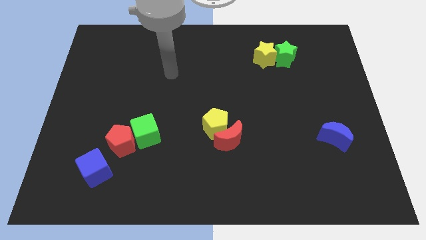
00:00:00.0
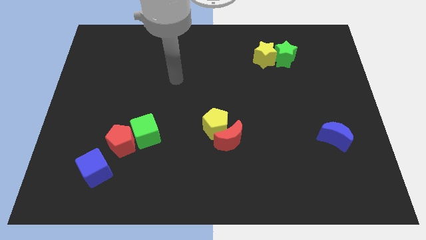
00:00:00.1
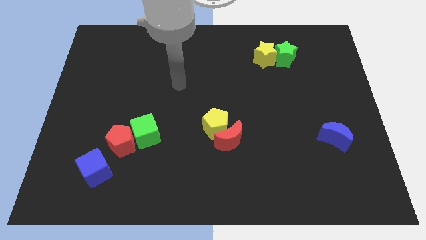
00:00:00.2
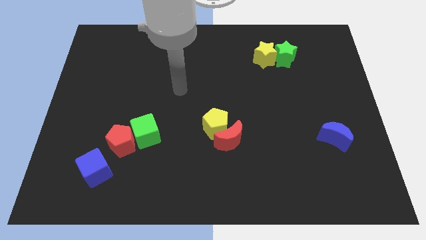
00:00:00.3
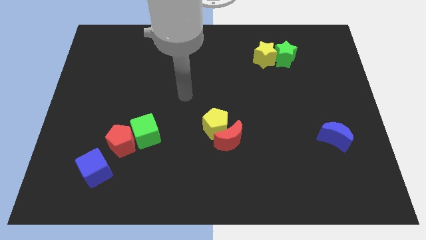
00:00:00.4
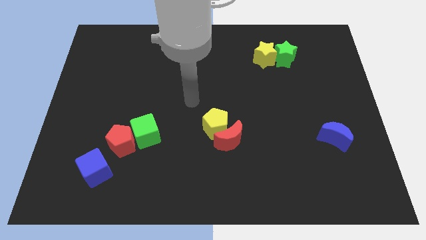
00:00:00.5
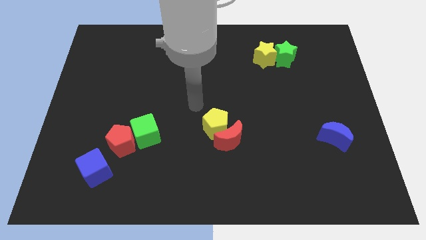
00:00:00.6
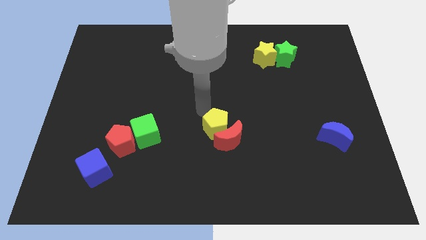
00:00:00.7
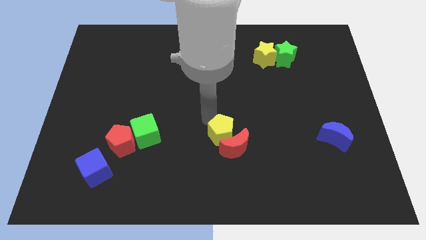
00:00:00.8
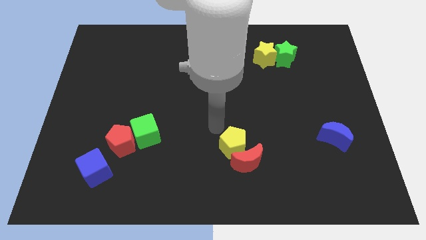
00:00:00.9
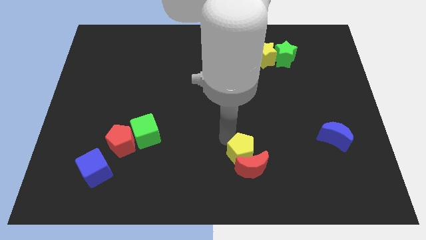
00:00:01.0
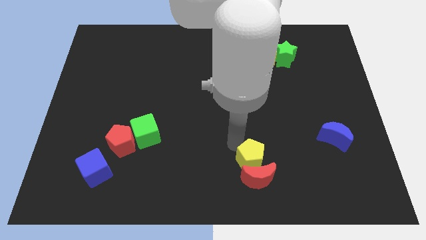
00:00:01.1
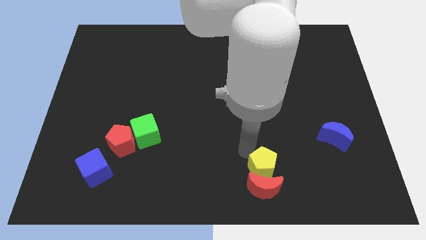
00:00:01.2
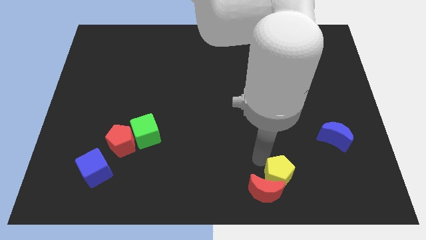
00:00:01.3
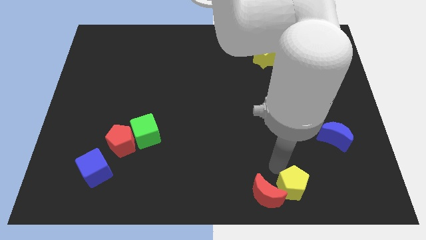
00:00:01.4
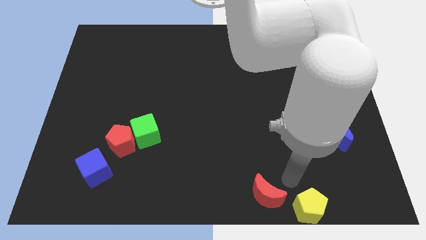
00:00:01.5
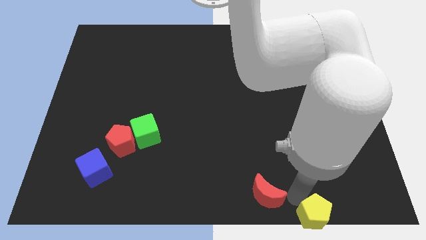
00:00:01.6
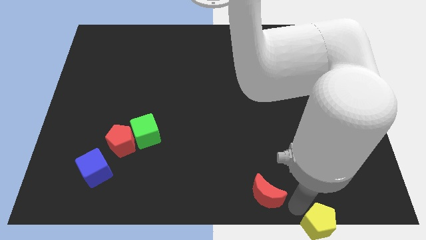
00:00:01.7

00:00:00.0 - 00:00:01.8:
move the red moon away from the yellow pentagon

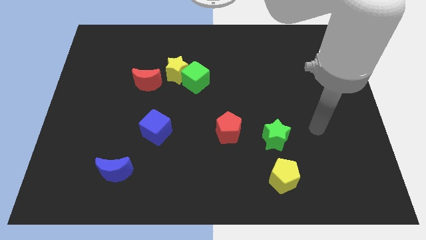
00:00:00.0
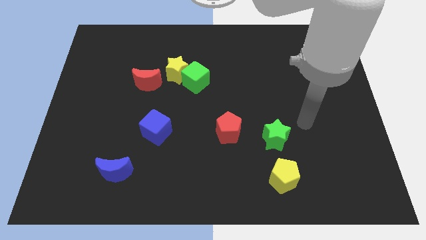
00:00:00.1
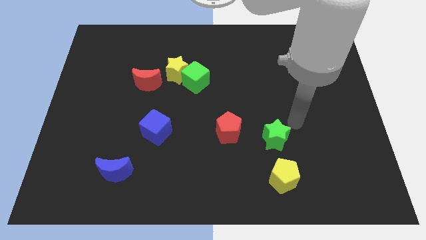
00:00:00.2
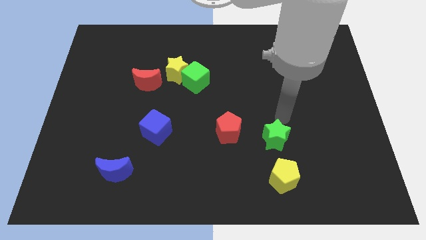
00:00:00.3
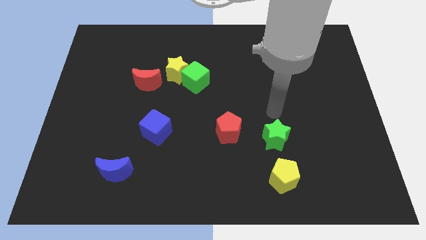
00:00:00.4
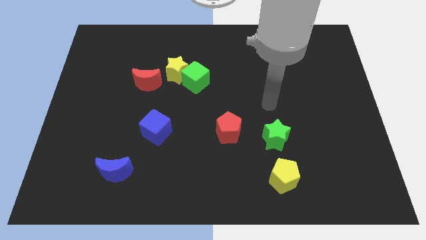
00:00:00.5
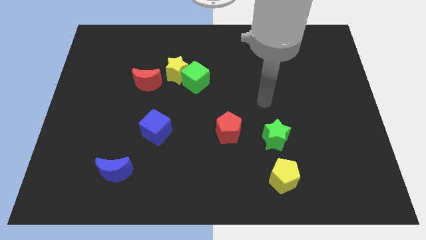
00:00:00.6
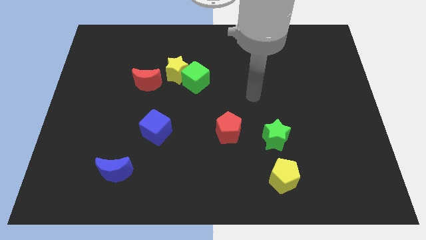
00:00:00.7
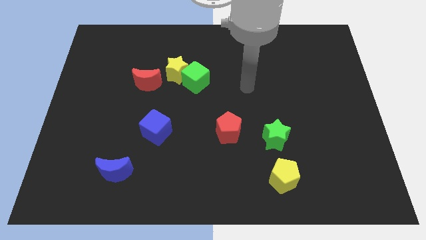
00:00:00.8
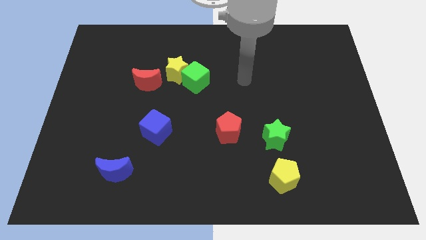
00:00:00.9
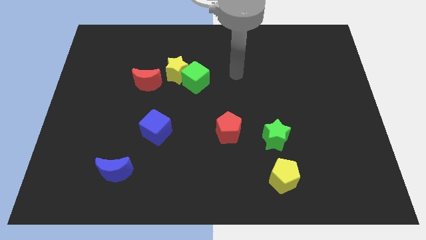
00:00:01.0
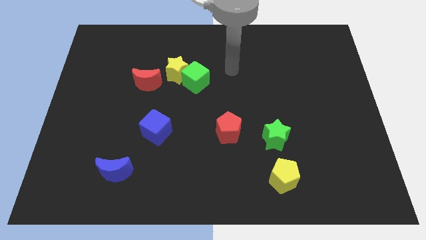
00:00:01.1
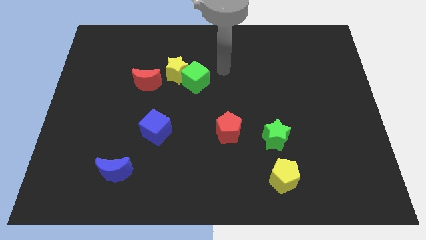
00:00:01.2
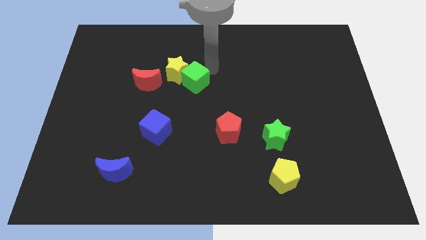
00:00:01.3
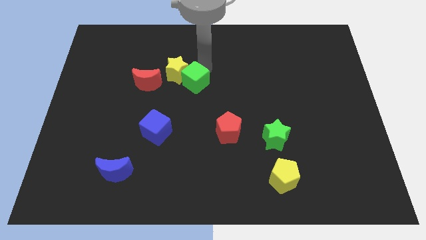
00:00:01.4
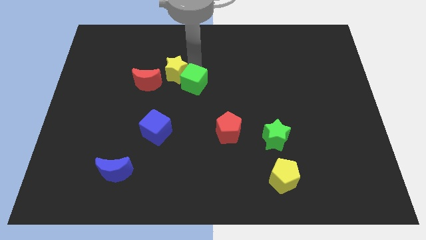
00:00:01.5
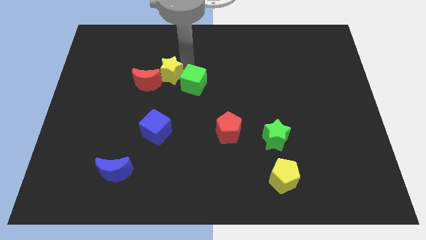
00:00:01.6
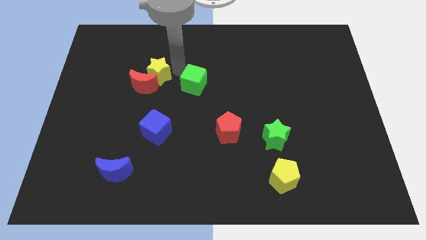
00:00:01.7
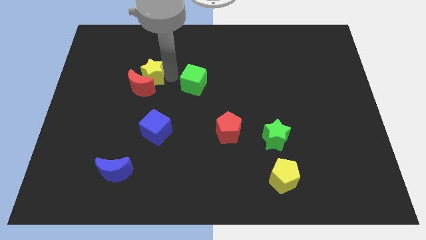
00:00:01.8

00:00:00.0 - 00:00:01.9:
move the green cube away from the yellow star

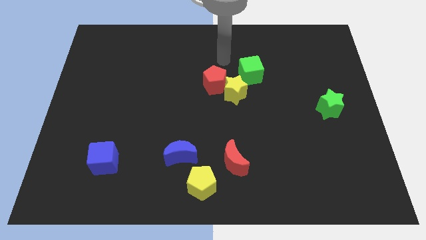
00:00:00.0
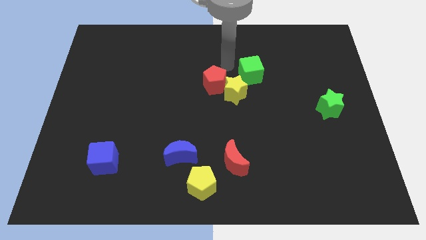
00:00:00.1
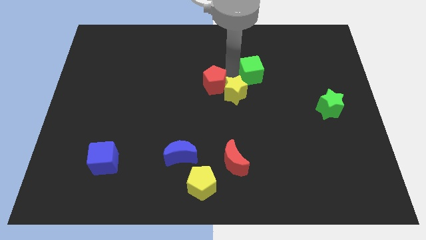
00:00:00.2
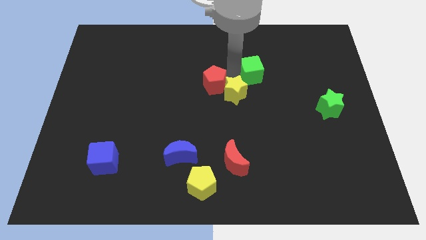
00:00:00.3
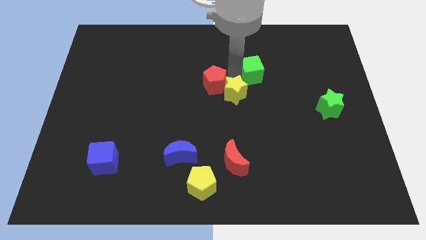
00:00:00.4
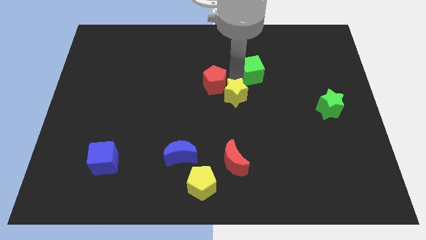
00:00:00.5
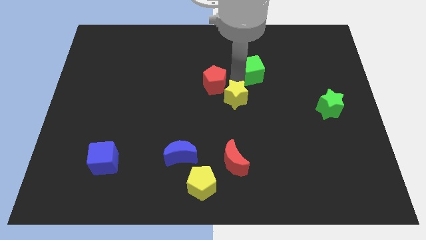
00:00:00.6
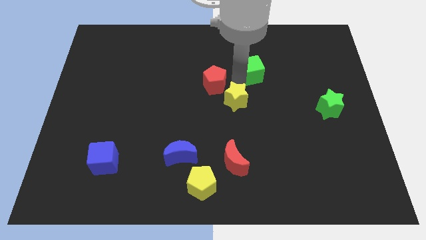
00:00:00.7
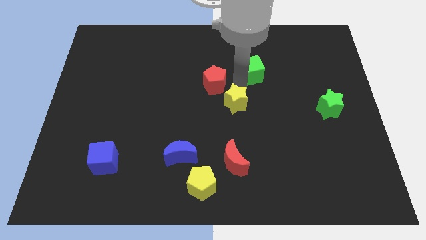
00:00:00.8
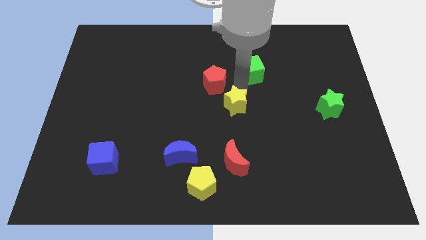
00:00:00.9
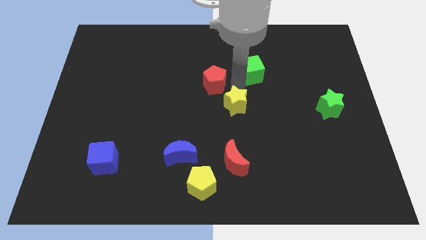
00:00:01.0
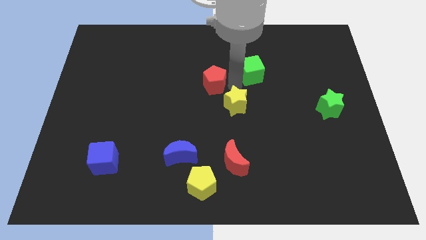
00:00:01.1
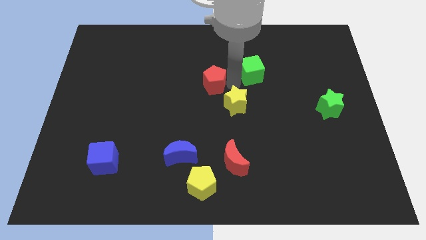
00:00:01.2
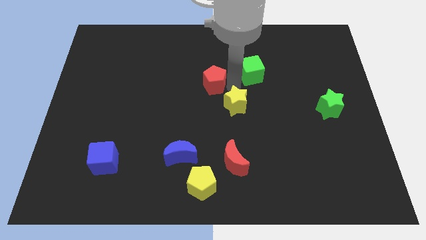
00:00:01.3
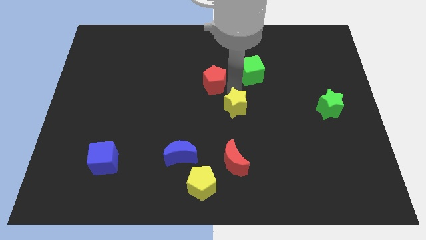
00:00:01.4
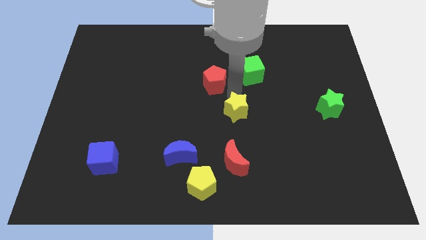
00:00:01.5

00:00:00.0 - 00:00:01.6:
pull the yellow star apart from the red pentagon and green cube

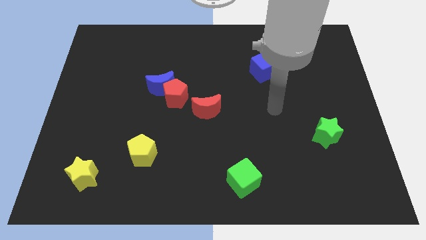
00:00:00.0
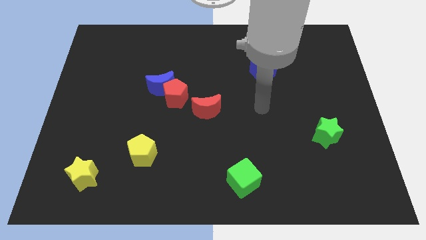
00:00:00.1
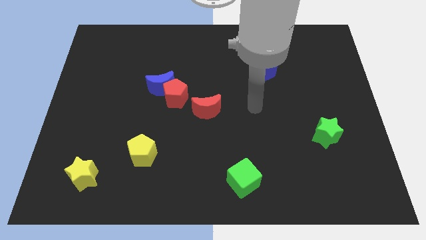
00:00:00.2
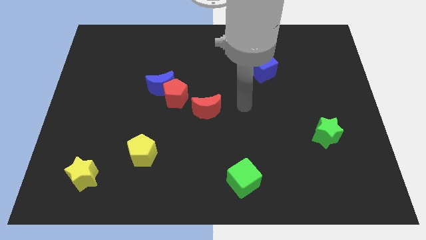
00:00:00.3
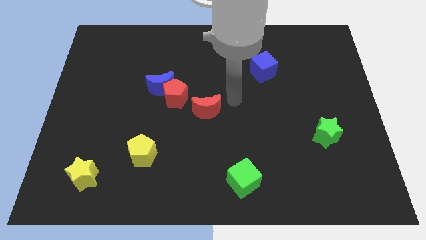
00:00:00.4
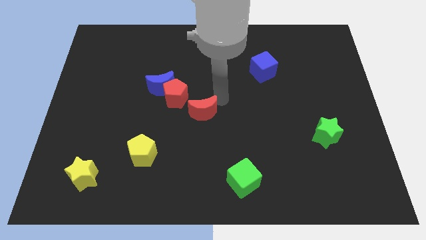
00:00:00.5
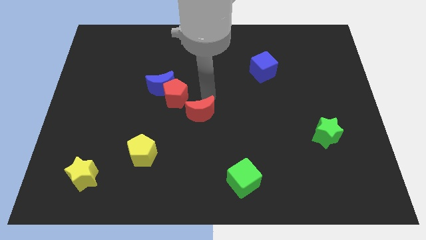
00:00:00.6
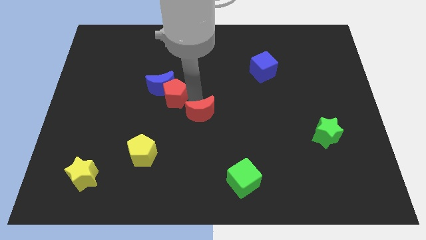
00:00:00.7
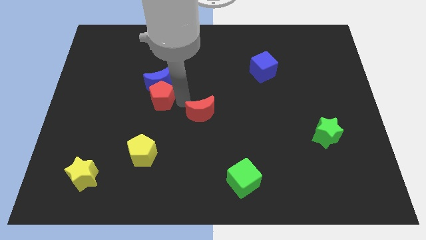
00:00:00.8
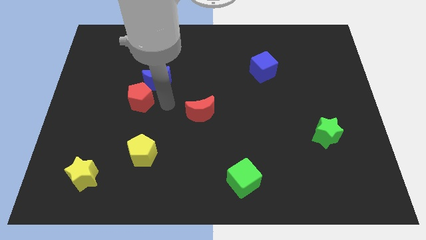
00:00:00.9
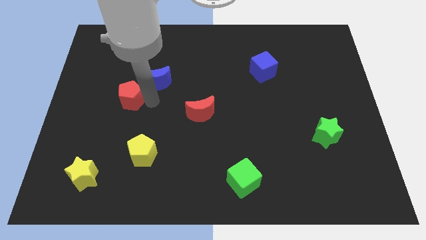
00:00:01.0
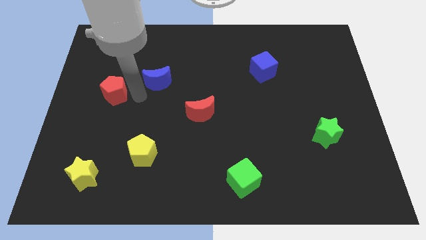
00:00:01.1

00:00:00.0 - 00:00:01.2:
separate the blue moon from the red pentagon

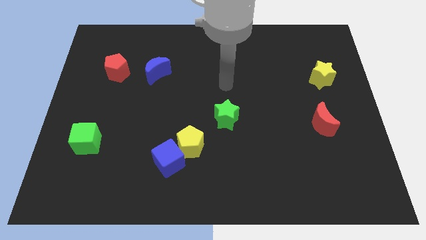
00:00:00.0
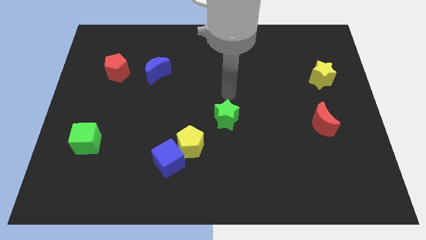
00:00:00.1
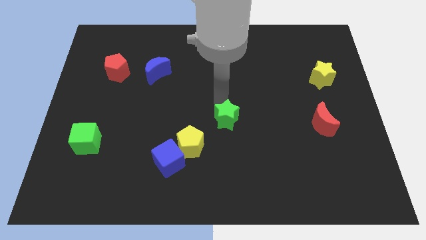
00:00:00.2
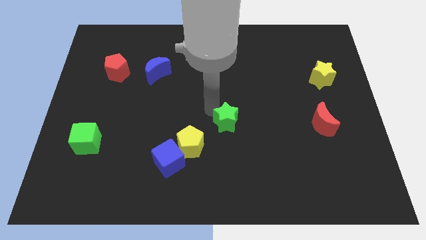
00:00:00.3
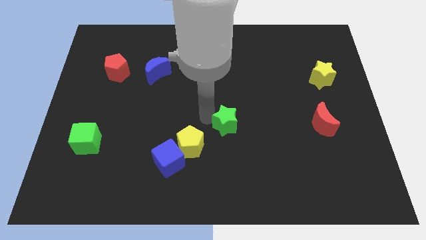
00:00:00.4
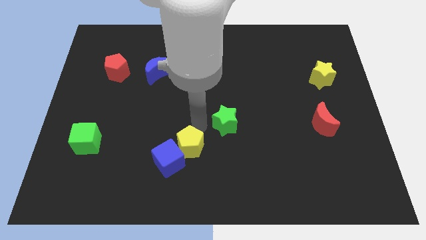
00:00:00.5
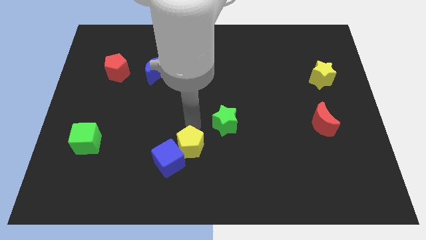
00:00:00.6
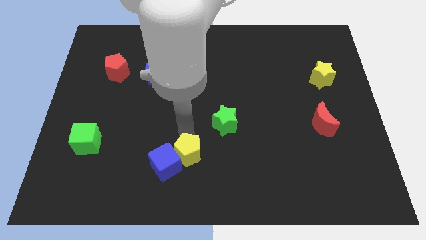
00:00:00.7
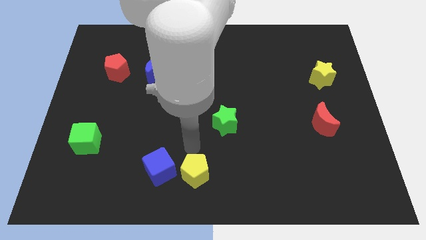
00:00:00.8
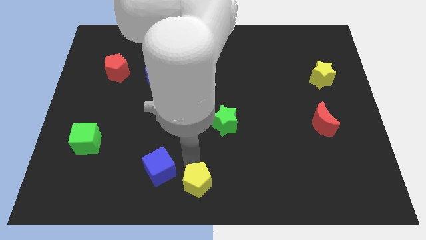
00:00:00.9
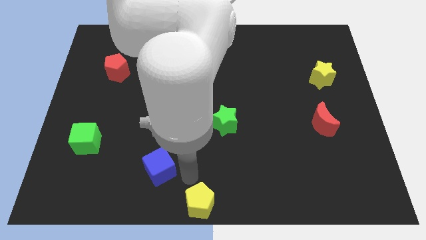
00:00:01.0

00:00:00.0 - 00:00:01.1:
move the blue cube away from the yellow pentagon

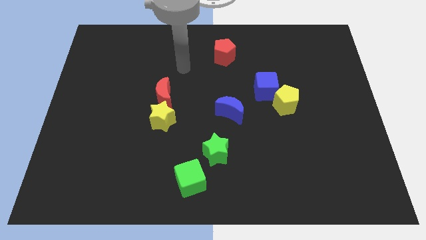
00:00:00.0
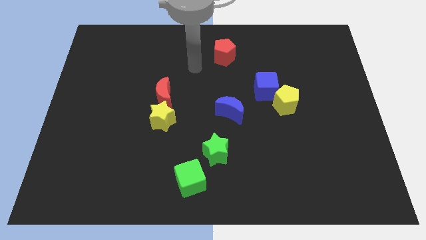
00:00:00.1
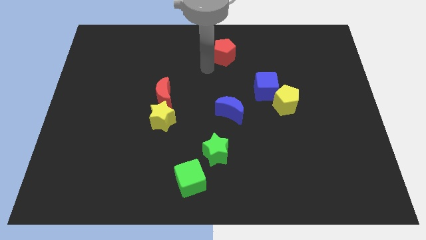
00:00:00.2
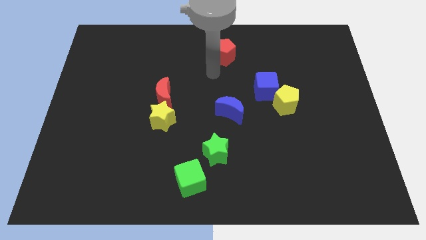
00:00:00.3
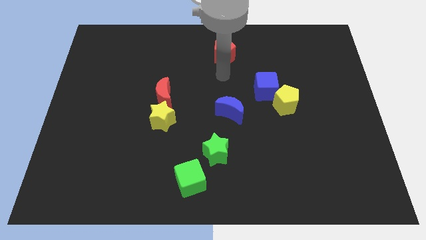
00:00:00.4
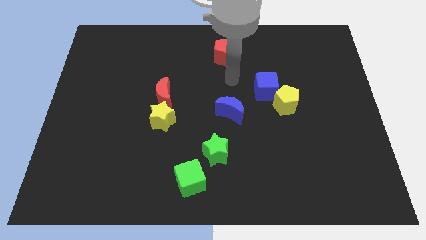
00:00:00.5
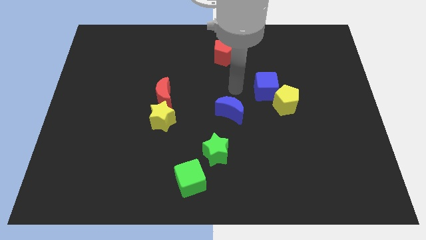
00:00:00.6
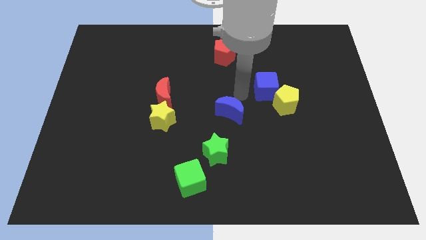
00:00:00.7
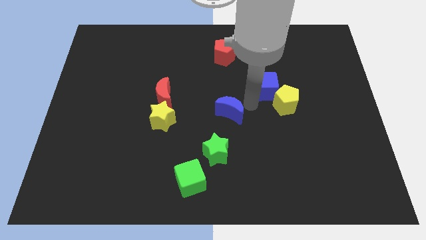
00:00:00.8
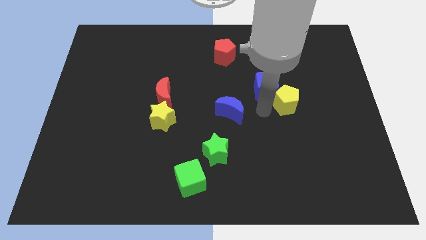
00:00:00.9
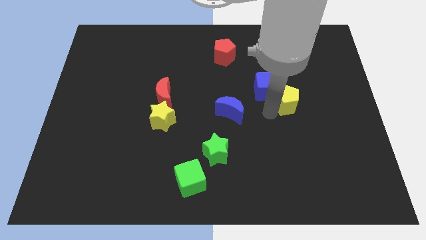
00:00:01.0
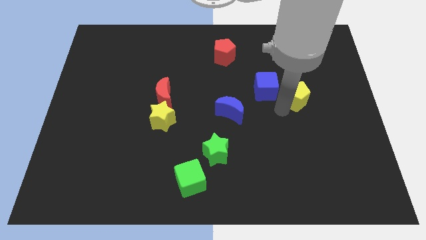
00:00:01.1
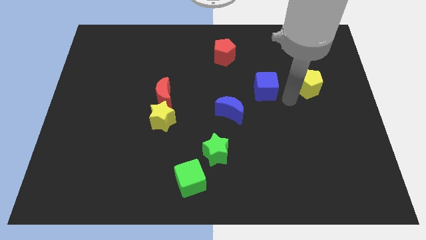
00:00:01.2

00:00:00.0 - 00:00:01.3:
separate the blue cube from the yellow pentagon

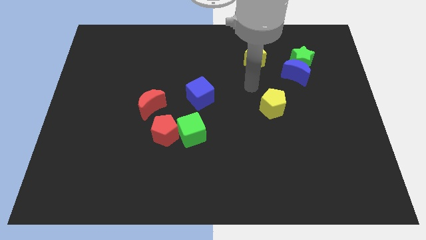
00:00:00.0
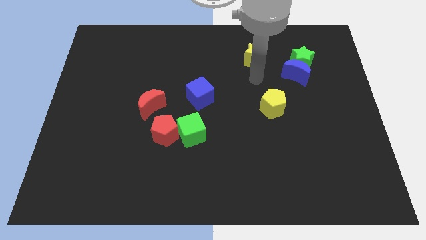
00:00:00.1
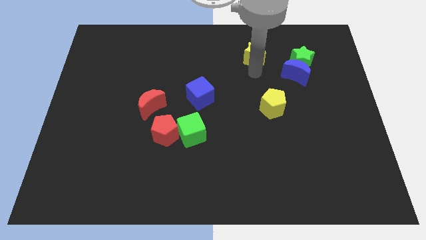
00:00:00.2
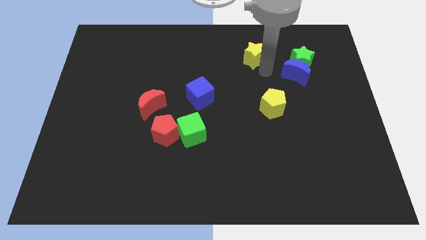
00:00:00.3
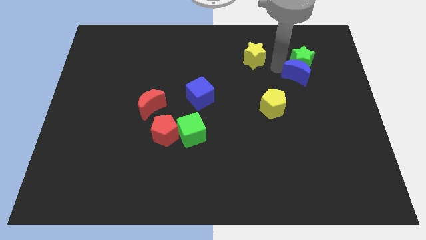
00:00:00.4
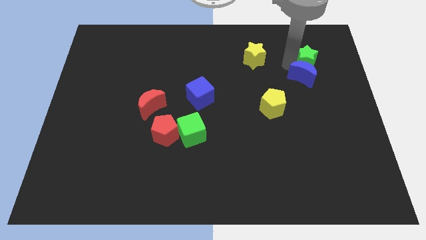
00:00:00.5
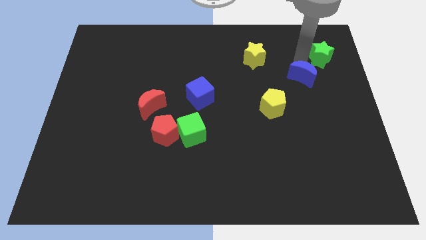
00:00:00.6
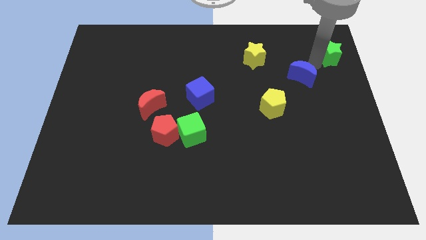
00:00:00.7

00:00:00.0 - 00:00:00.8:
separate the blue moon from the green star
